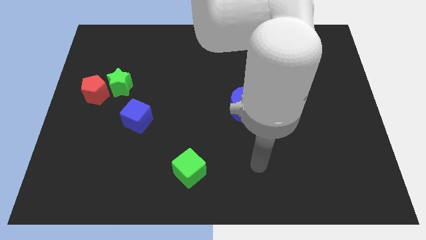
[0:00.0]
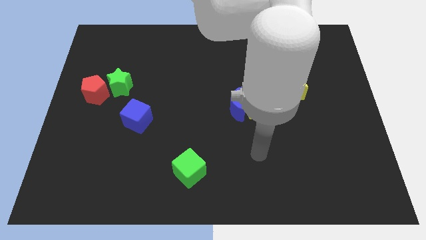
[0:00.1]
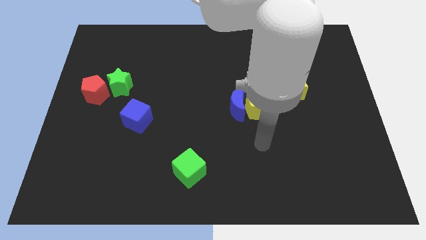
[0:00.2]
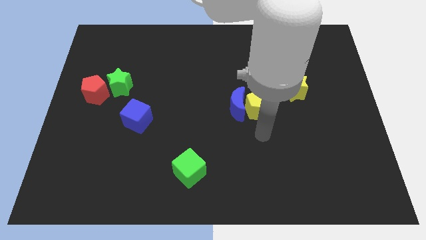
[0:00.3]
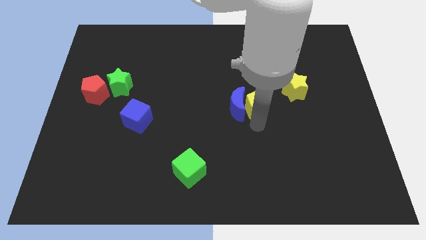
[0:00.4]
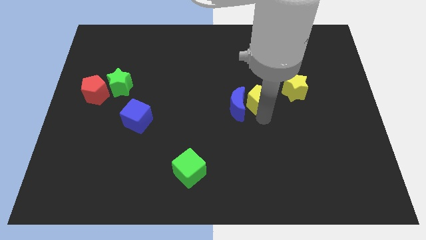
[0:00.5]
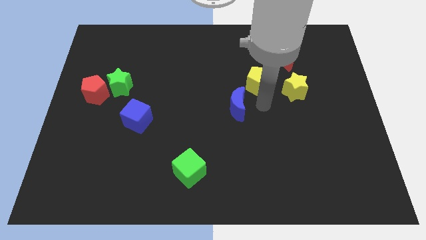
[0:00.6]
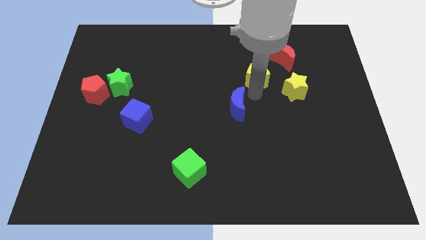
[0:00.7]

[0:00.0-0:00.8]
move the blue moon away from the yellow pentagon

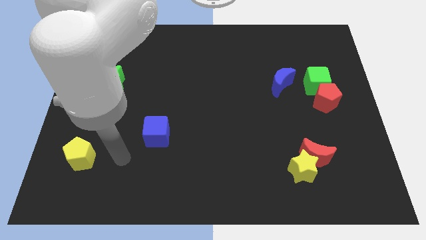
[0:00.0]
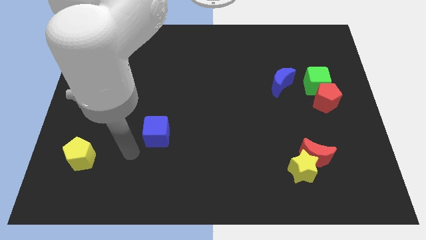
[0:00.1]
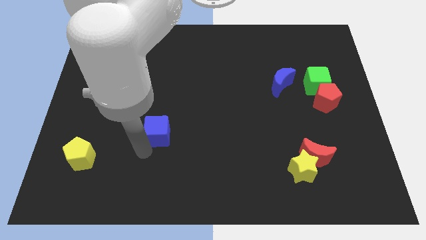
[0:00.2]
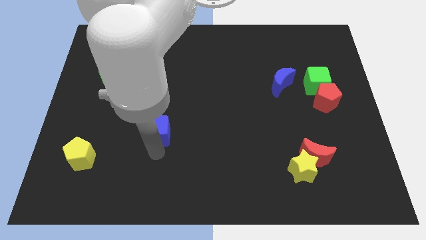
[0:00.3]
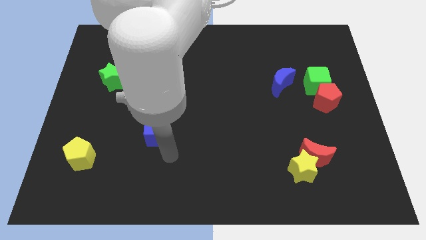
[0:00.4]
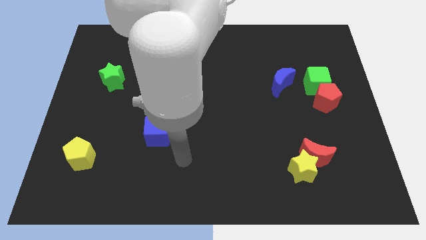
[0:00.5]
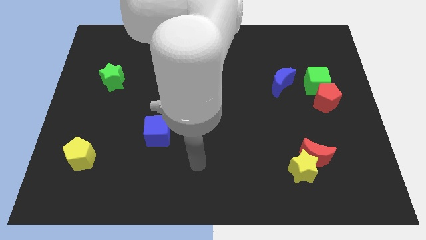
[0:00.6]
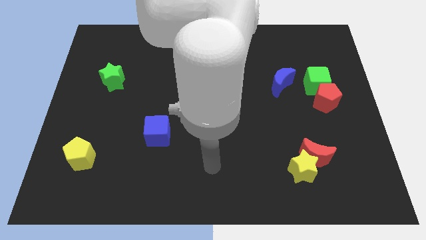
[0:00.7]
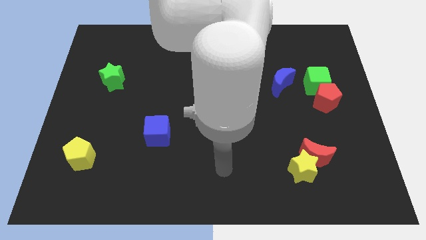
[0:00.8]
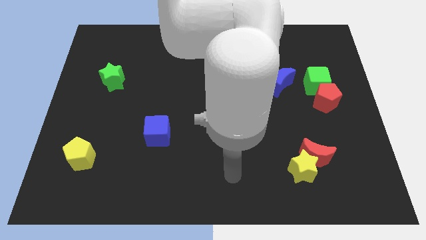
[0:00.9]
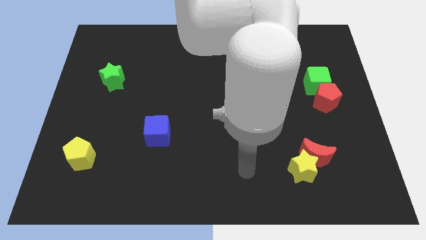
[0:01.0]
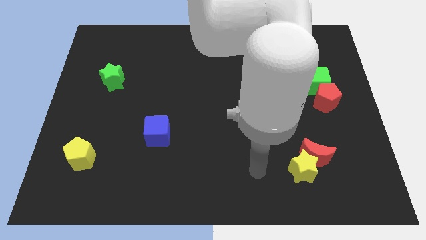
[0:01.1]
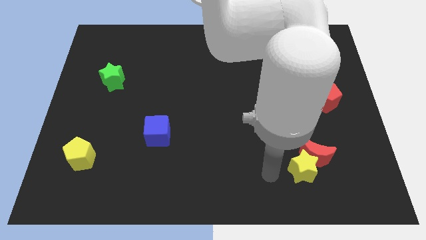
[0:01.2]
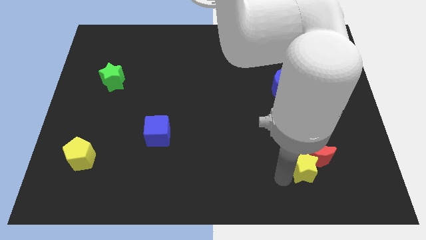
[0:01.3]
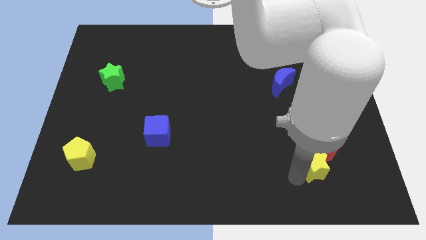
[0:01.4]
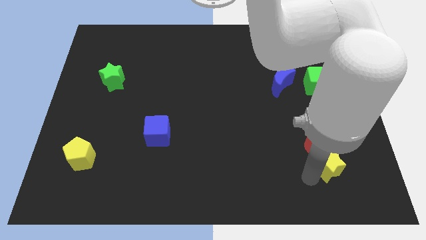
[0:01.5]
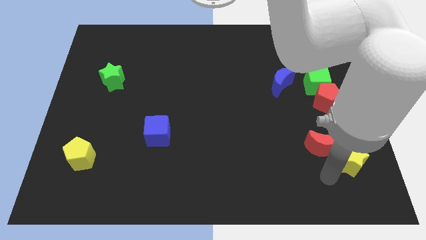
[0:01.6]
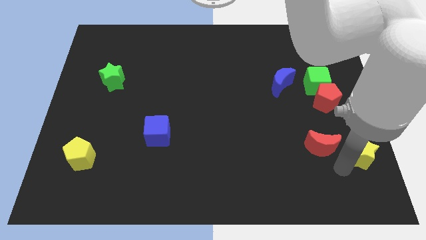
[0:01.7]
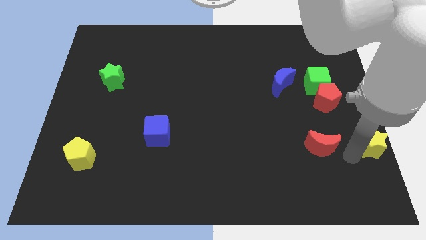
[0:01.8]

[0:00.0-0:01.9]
pull the red moon apart from the yellow star

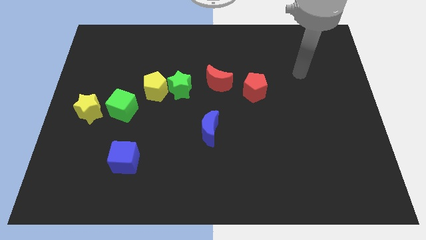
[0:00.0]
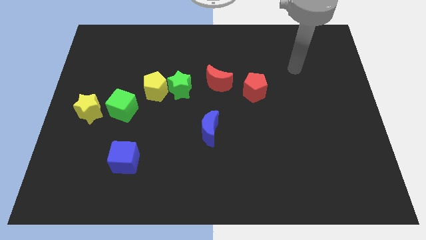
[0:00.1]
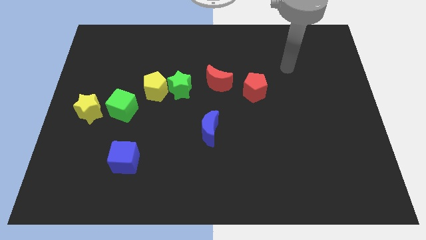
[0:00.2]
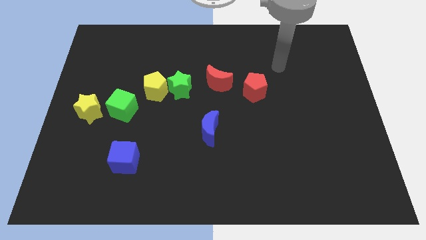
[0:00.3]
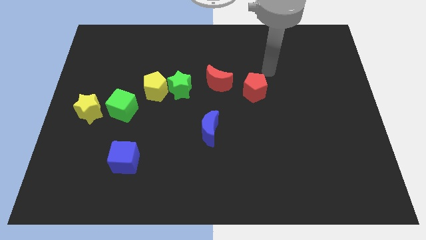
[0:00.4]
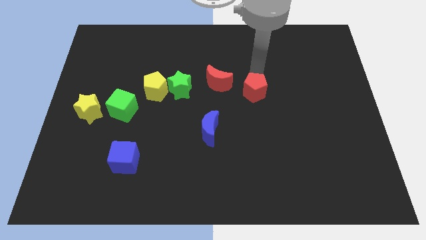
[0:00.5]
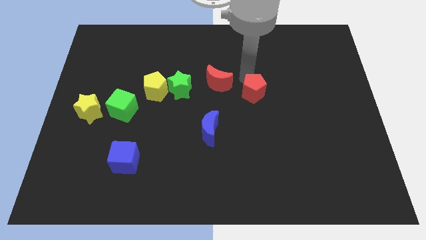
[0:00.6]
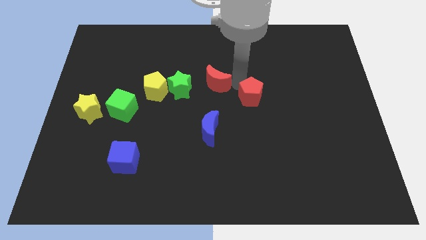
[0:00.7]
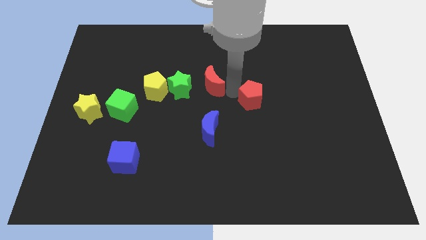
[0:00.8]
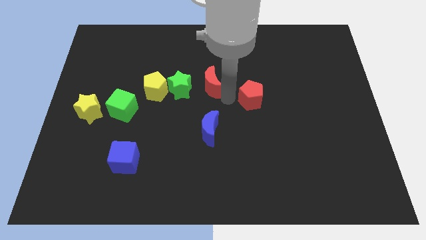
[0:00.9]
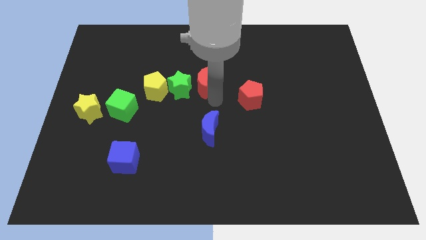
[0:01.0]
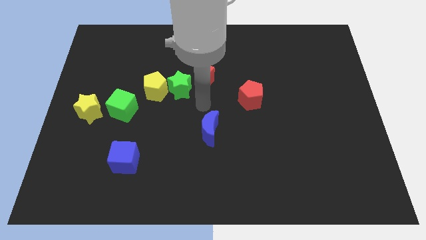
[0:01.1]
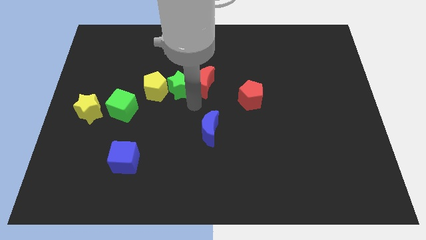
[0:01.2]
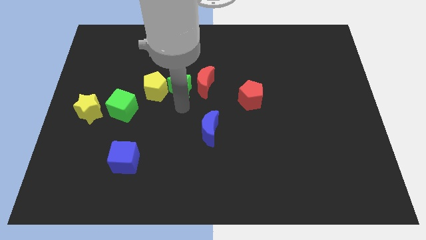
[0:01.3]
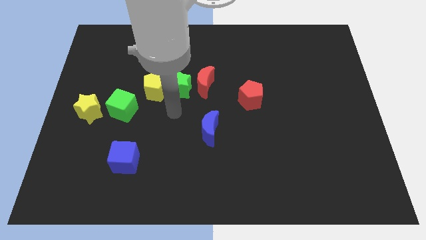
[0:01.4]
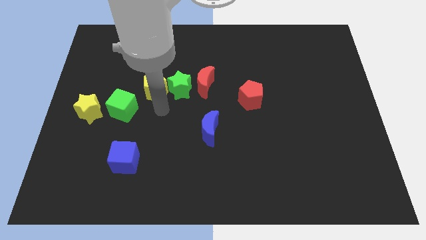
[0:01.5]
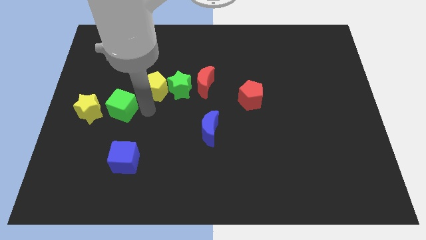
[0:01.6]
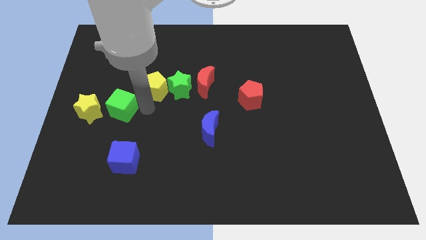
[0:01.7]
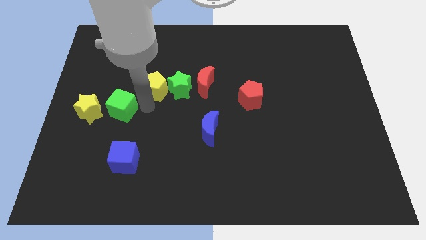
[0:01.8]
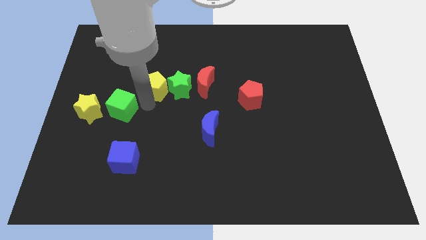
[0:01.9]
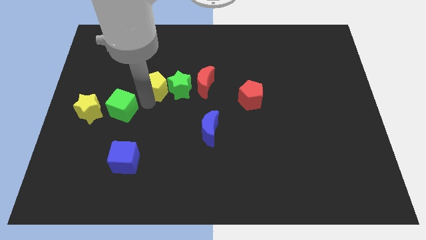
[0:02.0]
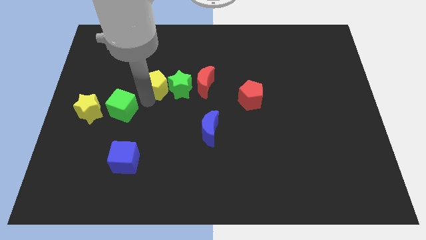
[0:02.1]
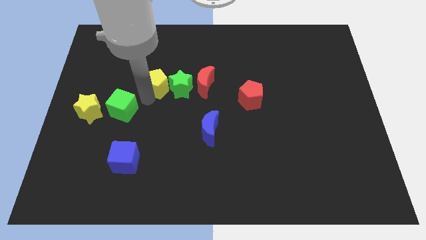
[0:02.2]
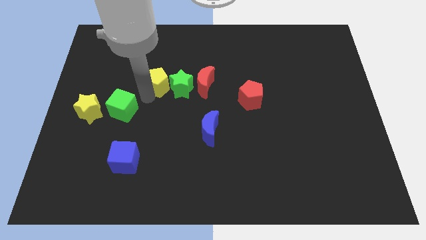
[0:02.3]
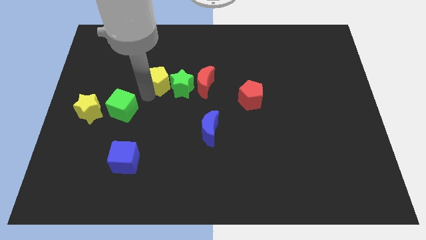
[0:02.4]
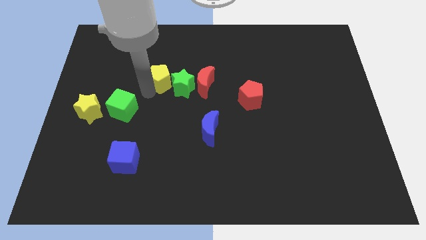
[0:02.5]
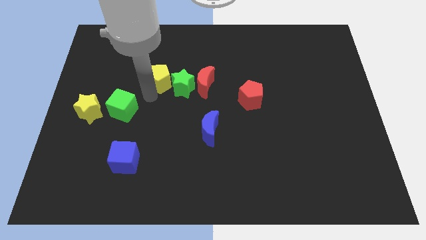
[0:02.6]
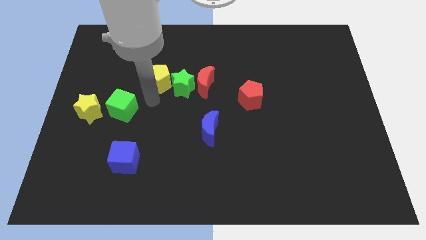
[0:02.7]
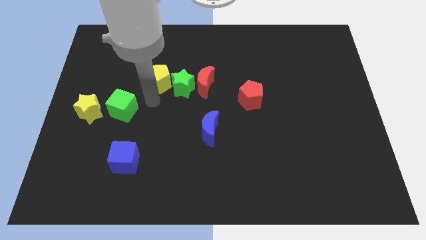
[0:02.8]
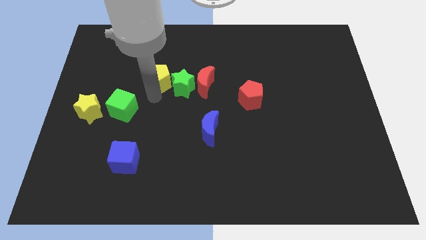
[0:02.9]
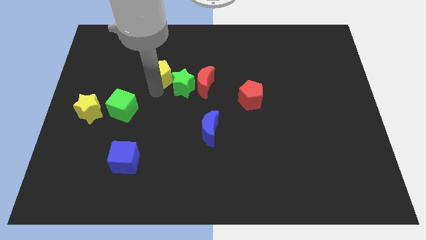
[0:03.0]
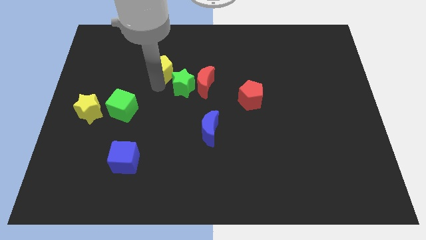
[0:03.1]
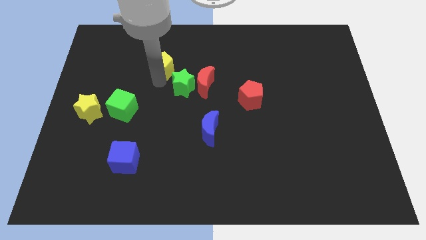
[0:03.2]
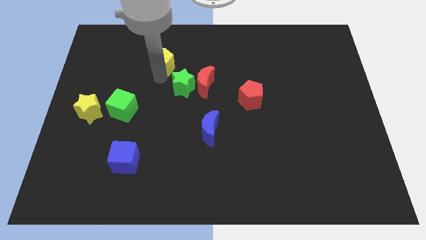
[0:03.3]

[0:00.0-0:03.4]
separate the yellow pentagon from the green star and green cube

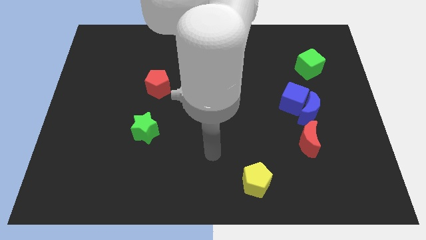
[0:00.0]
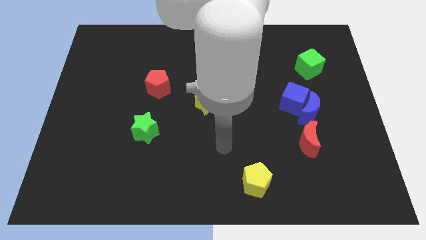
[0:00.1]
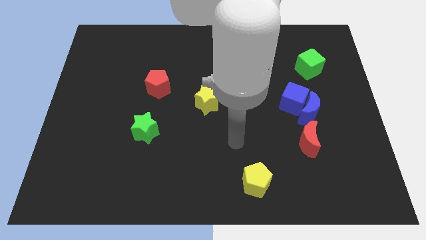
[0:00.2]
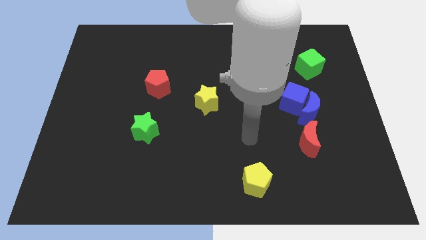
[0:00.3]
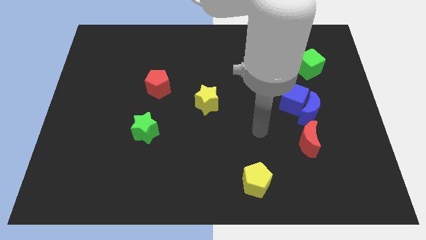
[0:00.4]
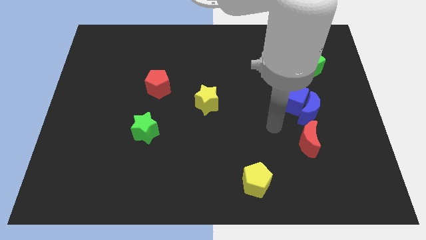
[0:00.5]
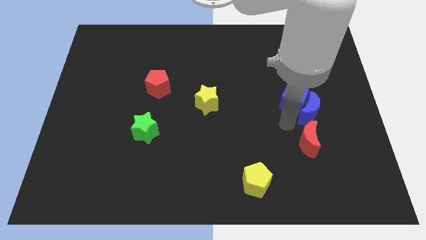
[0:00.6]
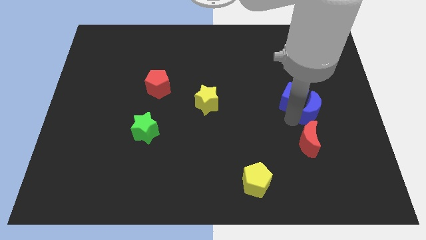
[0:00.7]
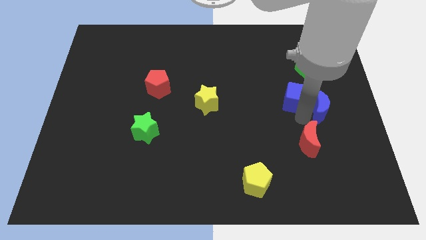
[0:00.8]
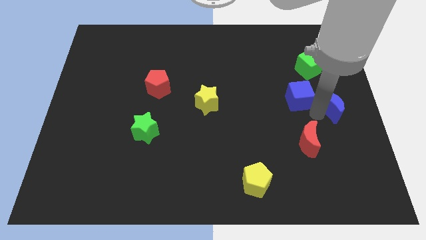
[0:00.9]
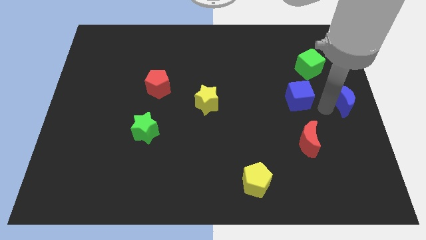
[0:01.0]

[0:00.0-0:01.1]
separate the blue cube from the blue moon

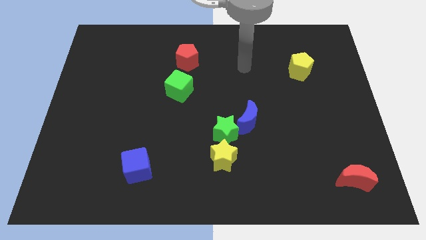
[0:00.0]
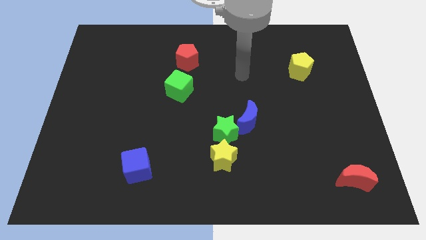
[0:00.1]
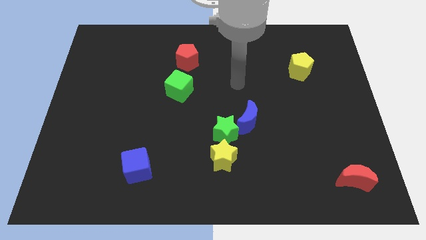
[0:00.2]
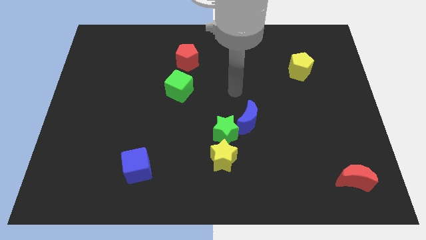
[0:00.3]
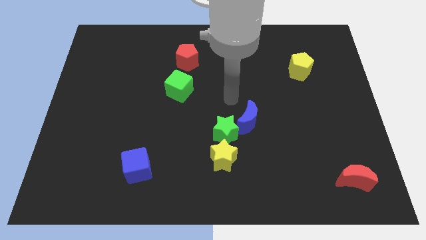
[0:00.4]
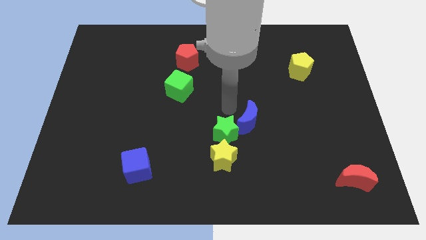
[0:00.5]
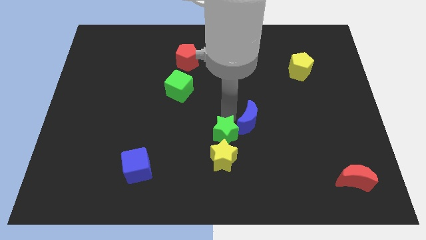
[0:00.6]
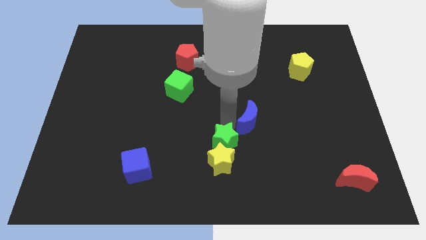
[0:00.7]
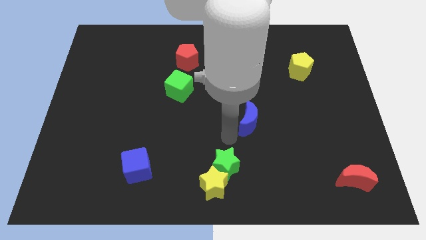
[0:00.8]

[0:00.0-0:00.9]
move the blue moon away from the green star

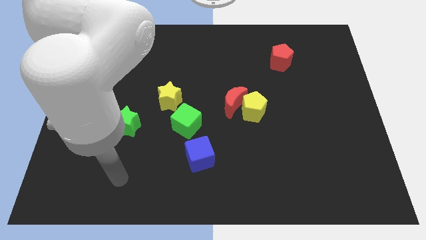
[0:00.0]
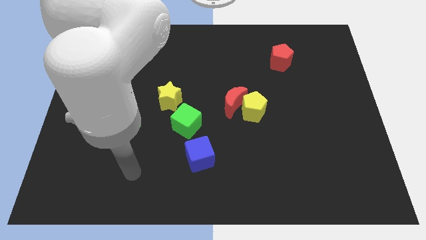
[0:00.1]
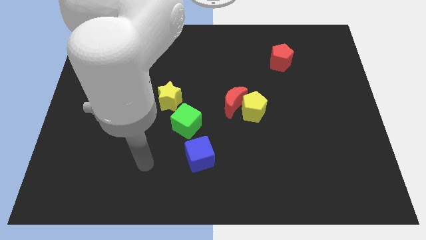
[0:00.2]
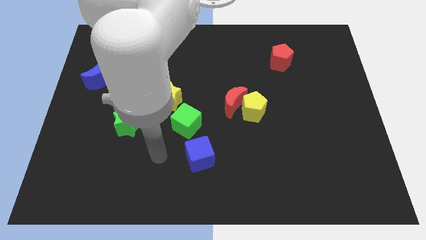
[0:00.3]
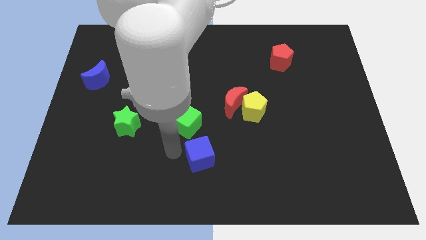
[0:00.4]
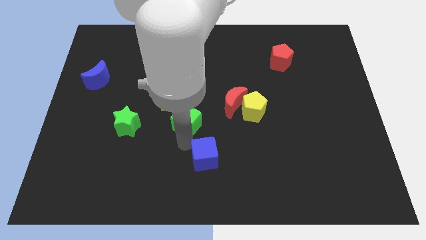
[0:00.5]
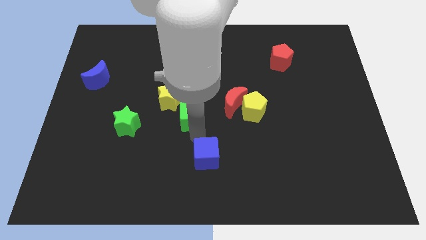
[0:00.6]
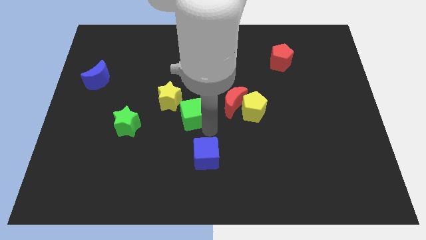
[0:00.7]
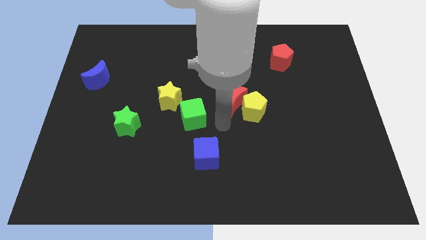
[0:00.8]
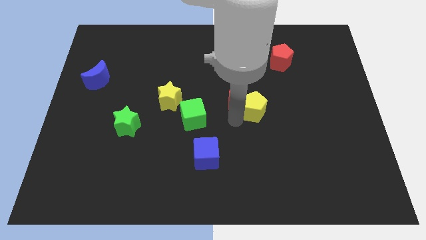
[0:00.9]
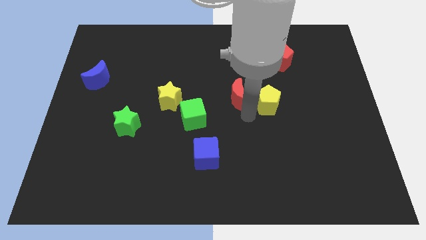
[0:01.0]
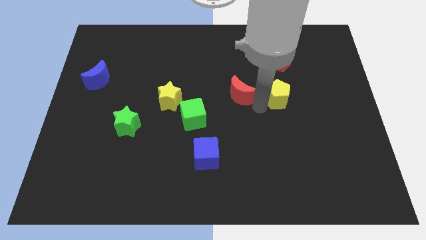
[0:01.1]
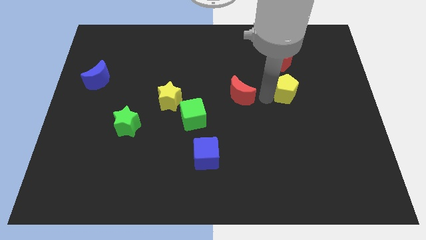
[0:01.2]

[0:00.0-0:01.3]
separate the red moon from the yellow pentagon
